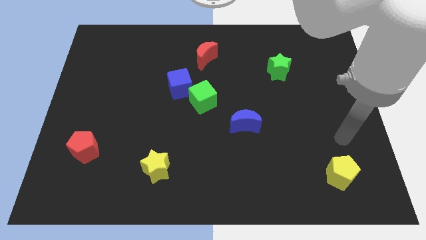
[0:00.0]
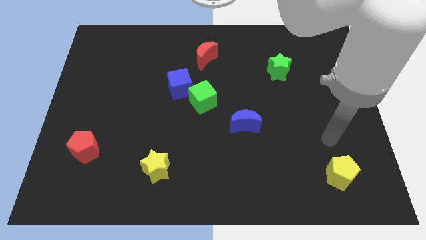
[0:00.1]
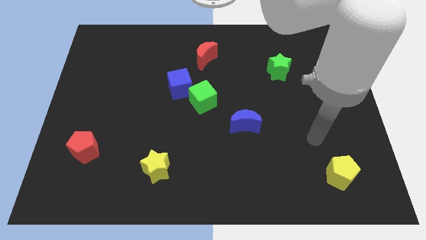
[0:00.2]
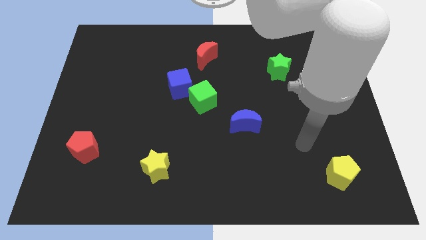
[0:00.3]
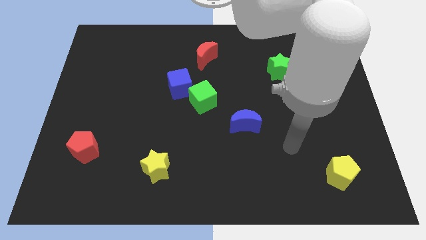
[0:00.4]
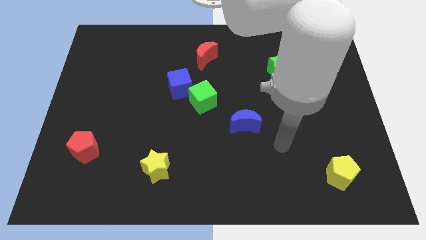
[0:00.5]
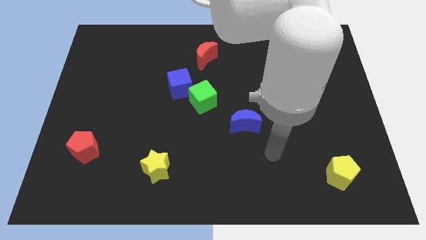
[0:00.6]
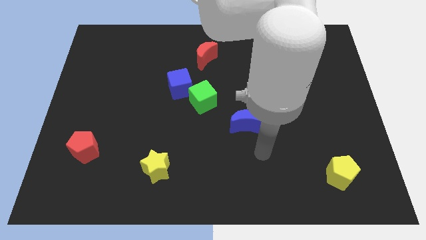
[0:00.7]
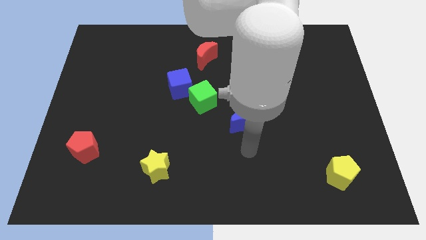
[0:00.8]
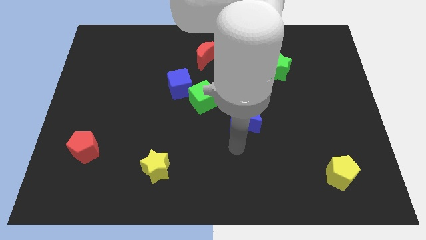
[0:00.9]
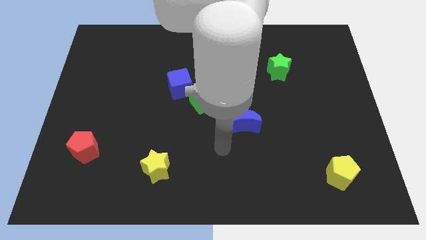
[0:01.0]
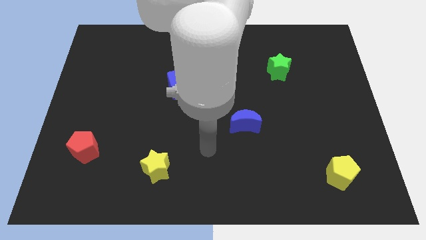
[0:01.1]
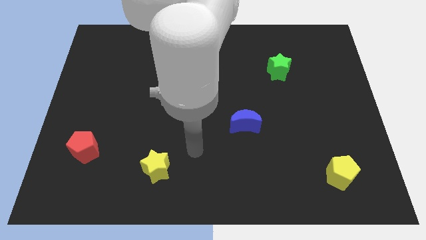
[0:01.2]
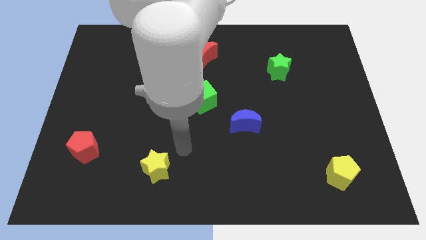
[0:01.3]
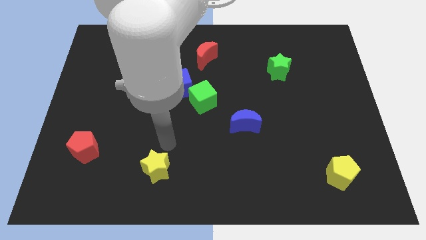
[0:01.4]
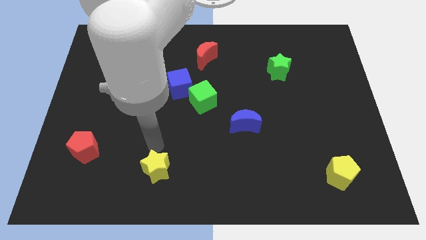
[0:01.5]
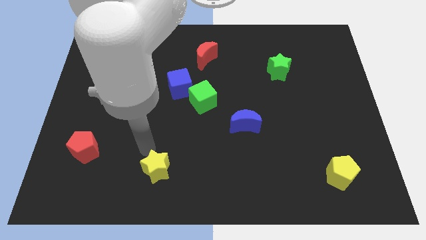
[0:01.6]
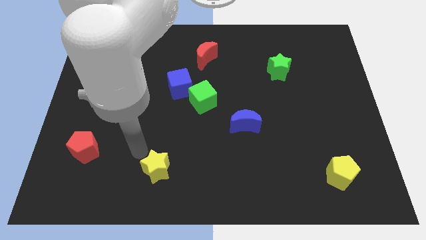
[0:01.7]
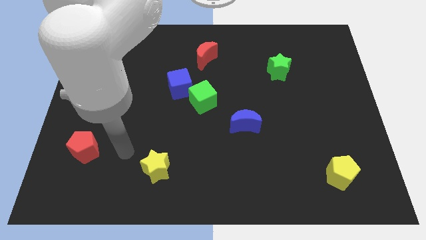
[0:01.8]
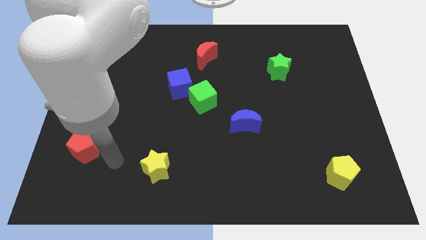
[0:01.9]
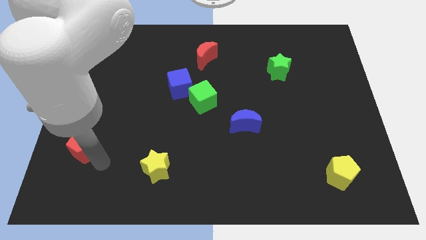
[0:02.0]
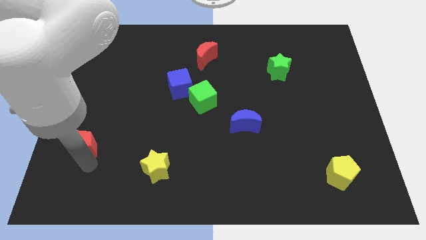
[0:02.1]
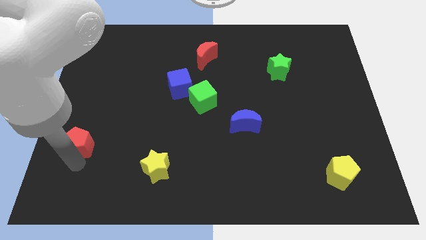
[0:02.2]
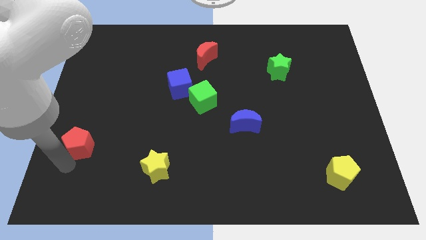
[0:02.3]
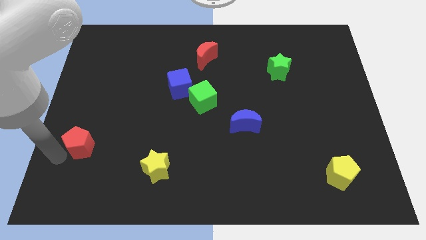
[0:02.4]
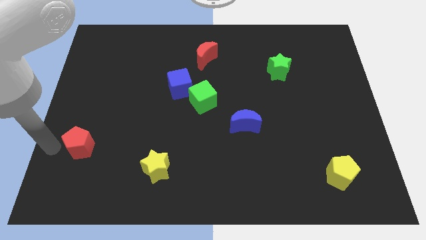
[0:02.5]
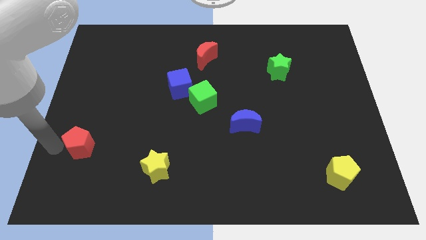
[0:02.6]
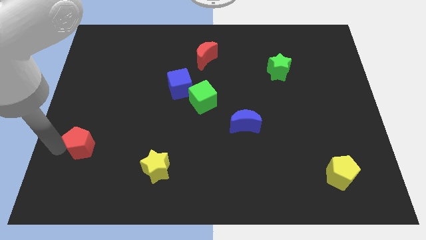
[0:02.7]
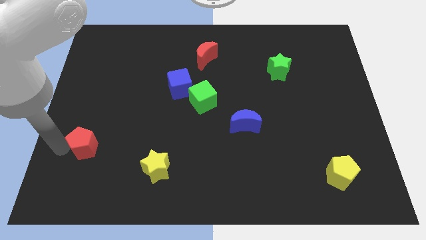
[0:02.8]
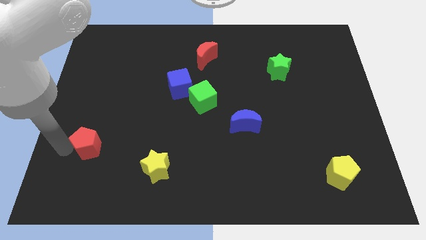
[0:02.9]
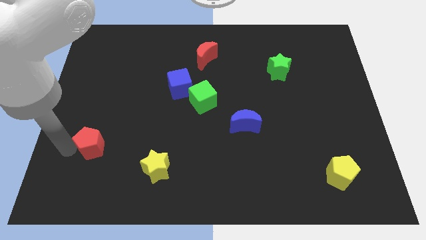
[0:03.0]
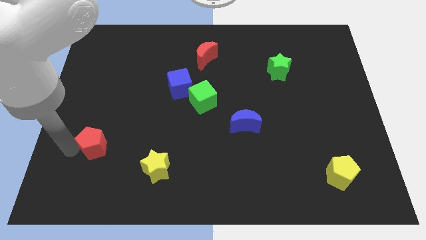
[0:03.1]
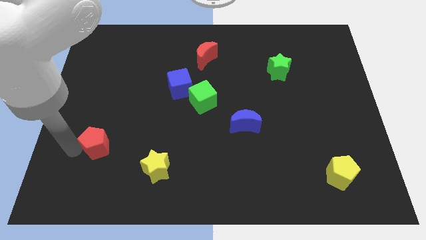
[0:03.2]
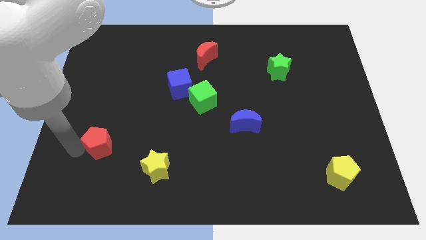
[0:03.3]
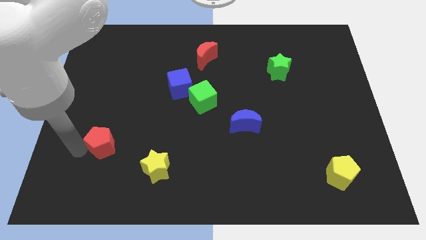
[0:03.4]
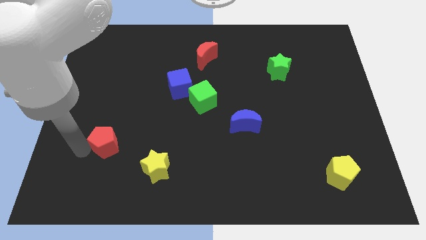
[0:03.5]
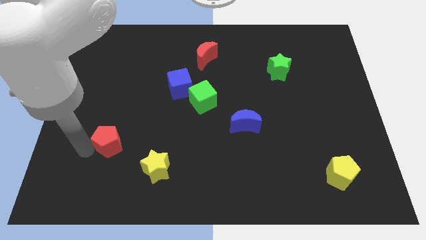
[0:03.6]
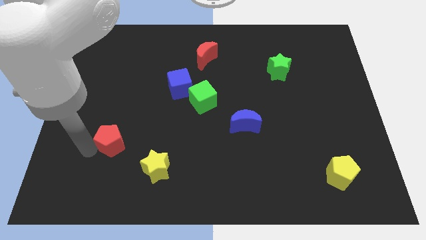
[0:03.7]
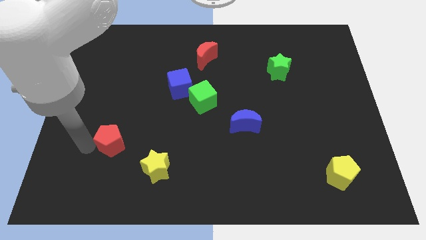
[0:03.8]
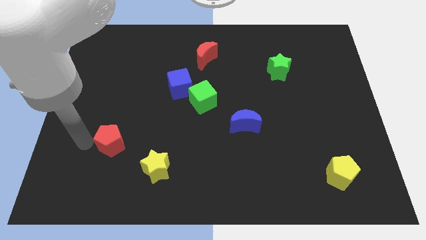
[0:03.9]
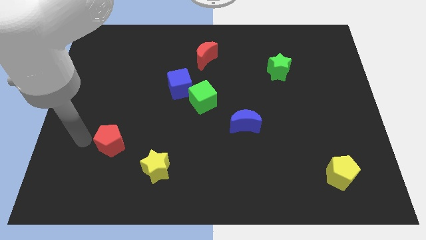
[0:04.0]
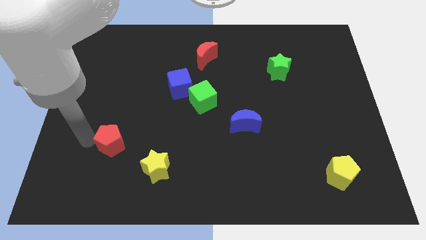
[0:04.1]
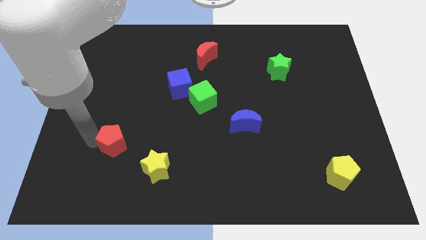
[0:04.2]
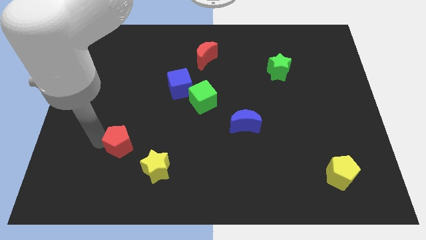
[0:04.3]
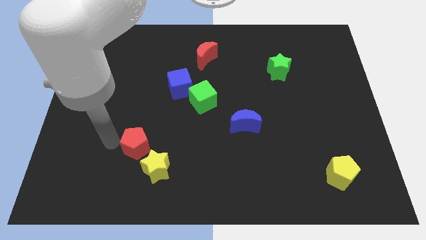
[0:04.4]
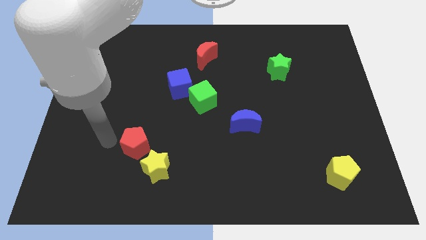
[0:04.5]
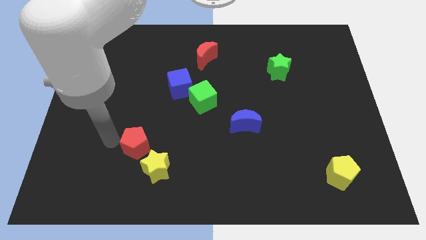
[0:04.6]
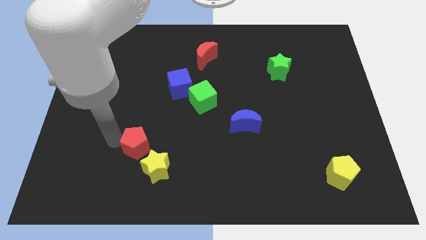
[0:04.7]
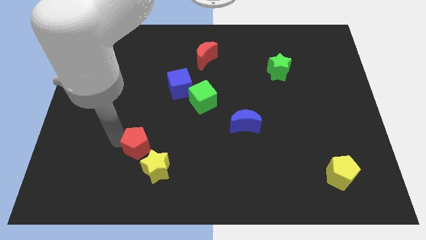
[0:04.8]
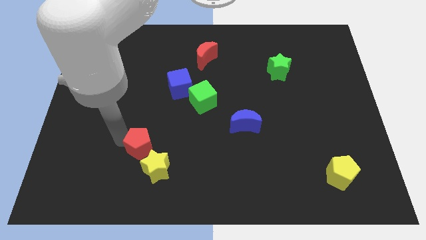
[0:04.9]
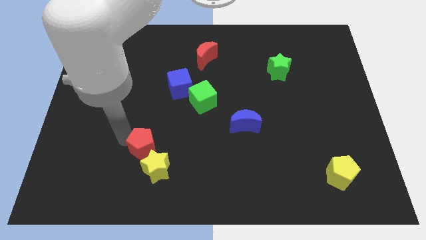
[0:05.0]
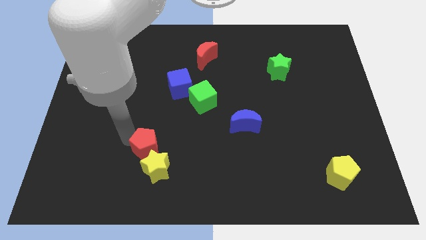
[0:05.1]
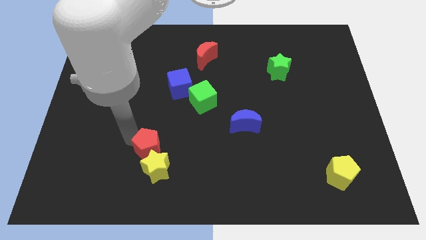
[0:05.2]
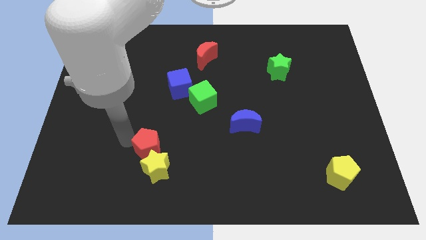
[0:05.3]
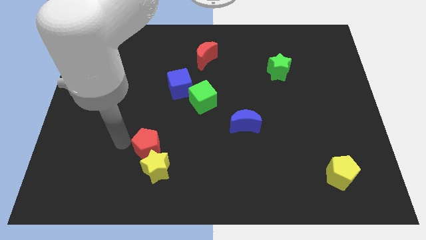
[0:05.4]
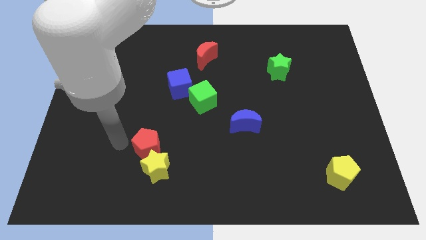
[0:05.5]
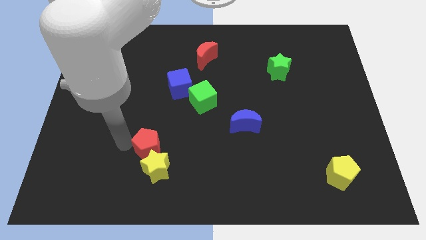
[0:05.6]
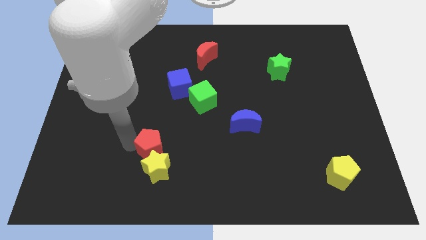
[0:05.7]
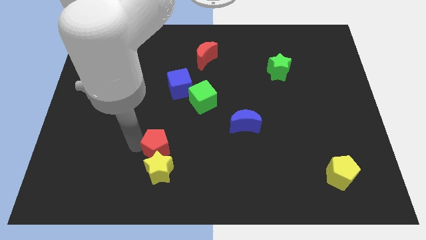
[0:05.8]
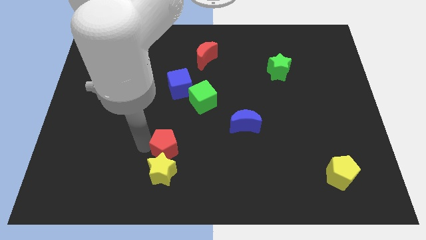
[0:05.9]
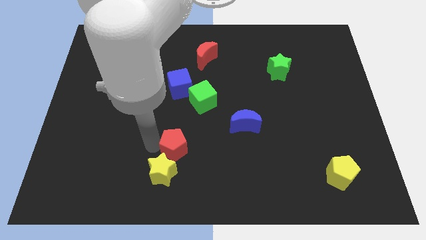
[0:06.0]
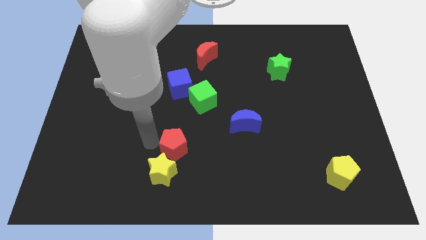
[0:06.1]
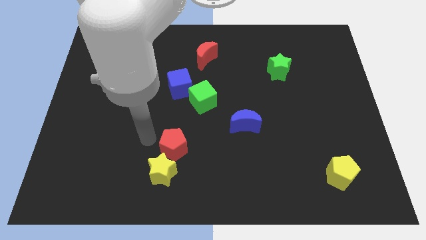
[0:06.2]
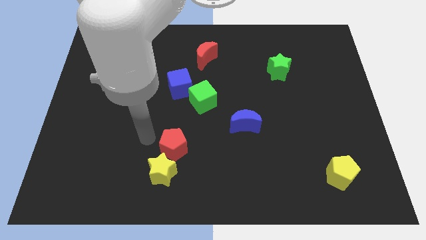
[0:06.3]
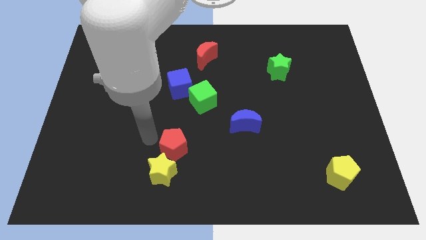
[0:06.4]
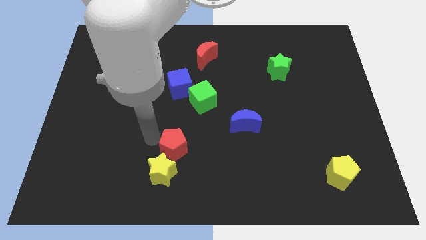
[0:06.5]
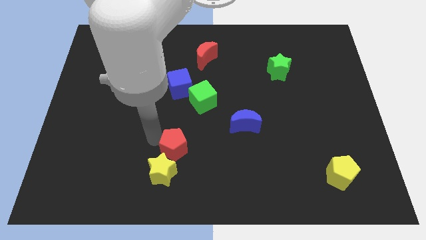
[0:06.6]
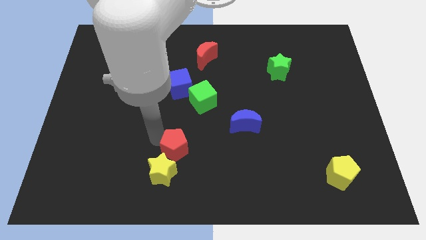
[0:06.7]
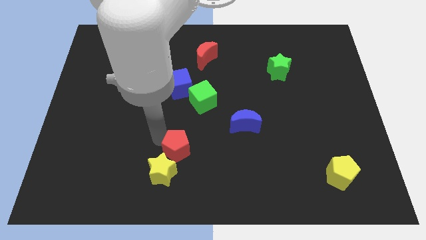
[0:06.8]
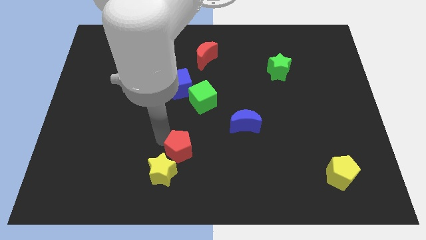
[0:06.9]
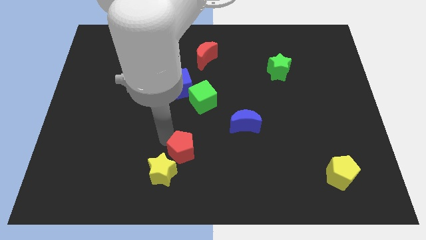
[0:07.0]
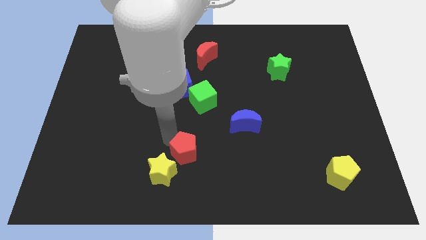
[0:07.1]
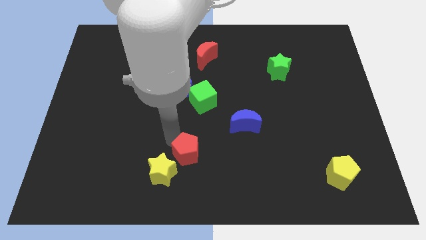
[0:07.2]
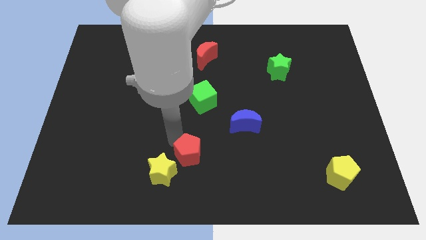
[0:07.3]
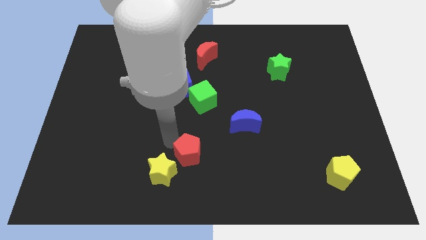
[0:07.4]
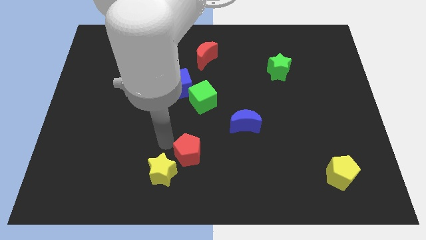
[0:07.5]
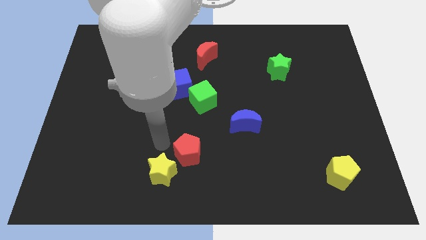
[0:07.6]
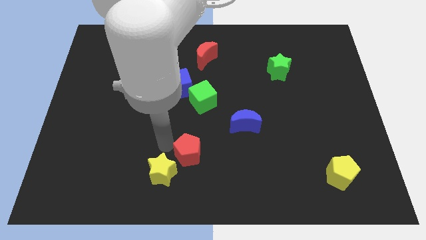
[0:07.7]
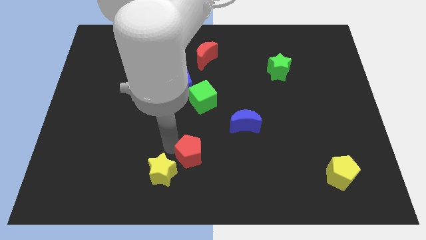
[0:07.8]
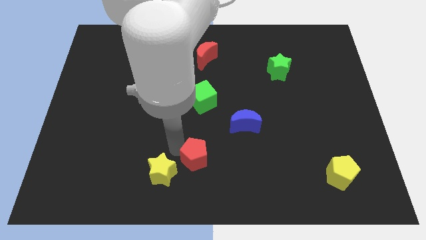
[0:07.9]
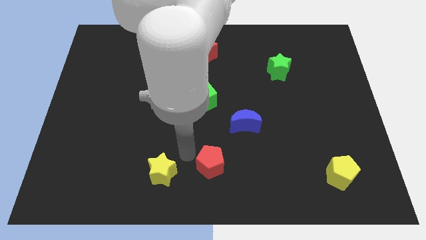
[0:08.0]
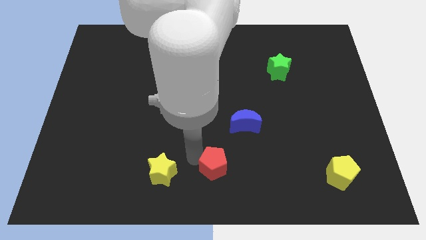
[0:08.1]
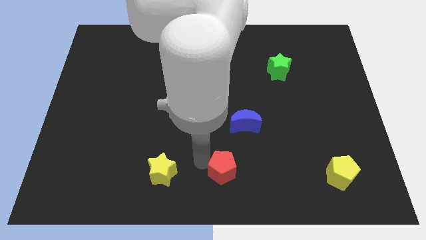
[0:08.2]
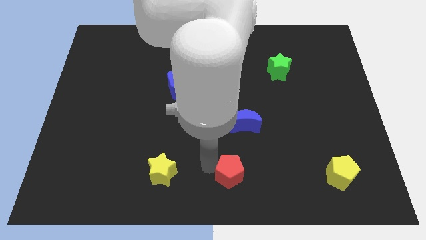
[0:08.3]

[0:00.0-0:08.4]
push the red pentagon to the bottom side of the blue moon
